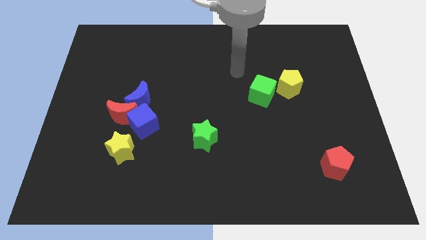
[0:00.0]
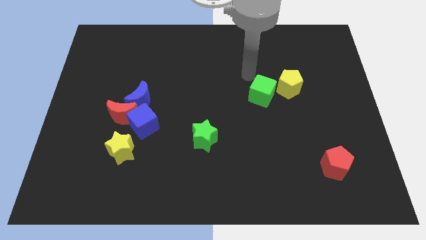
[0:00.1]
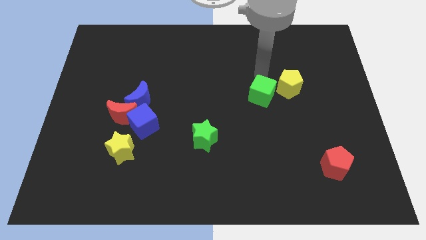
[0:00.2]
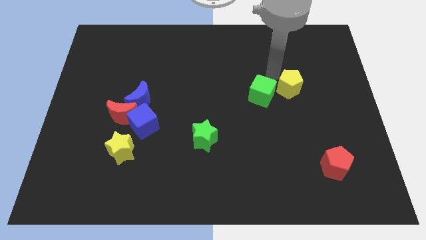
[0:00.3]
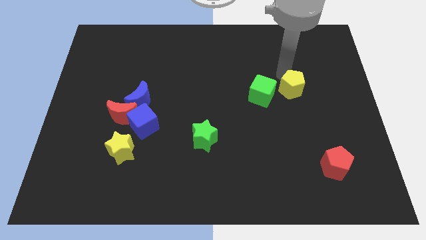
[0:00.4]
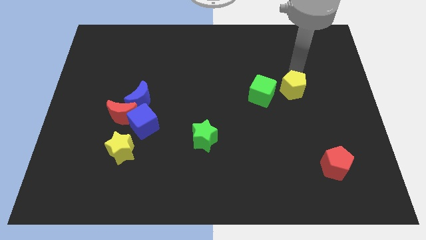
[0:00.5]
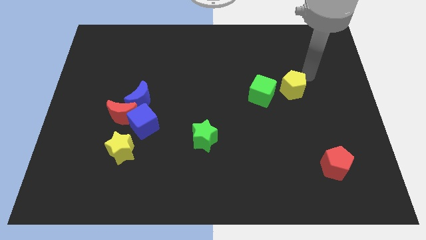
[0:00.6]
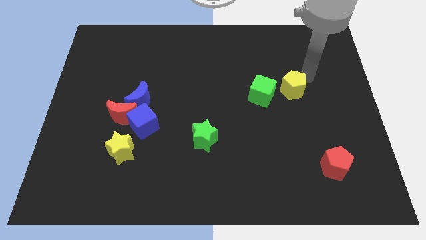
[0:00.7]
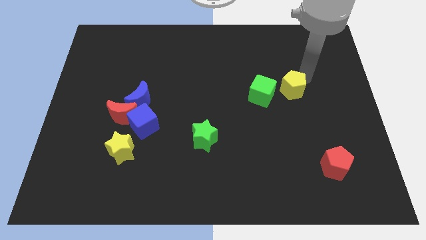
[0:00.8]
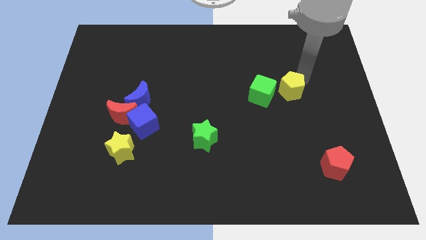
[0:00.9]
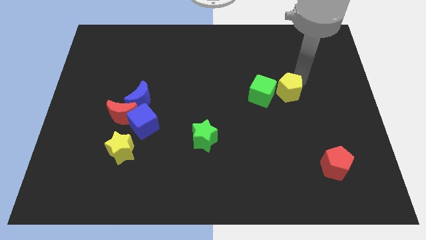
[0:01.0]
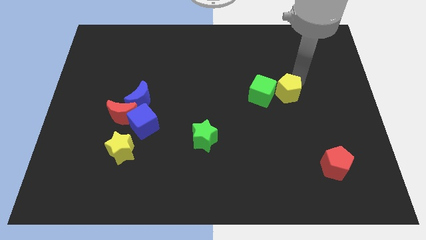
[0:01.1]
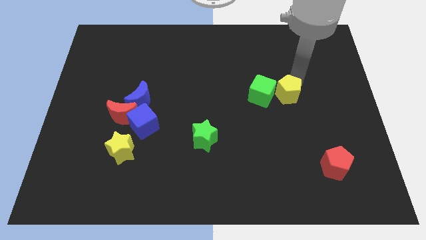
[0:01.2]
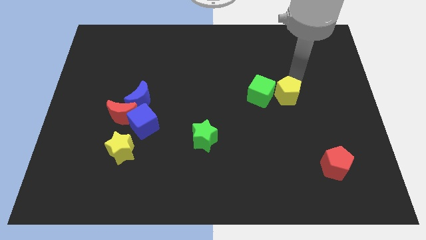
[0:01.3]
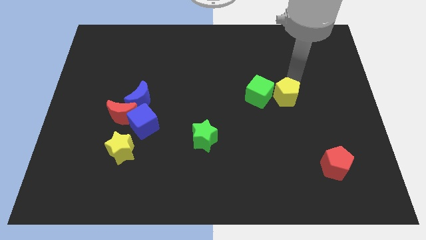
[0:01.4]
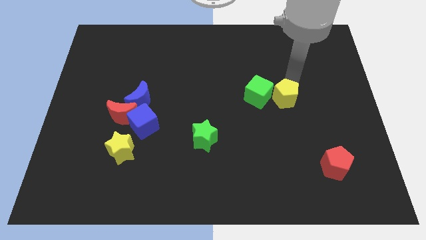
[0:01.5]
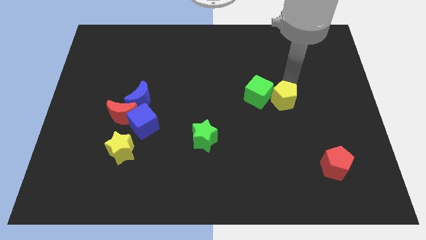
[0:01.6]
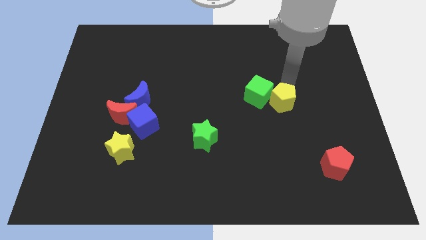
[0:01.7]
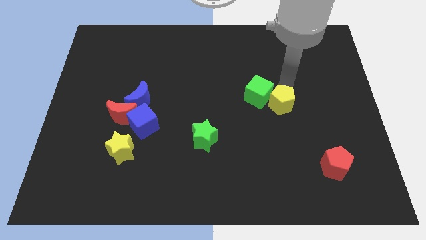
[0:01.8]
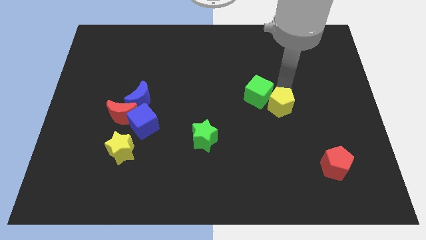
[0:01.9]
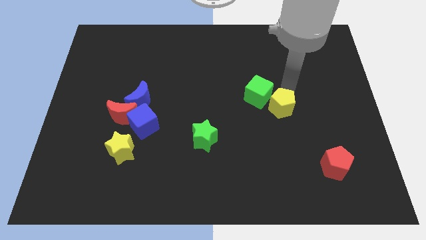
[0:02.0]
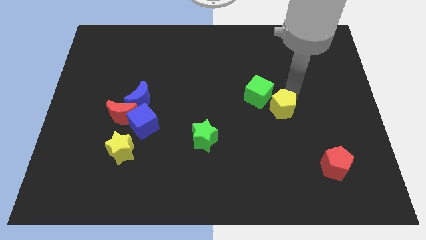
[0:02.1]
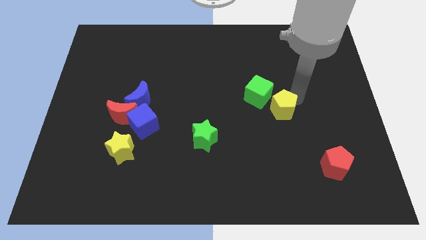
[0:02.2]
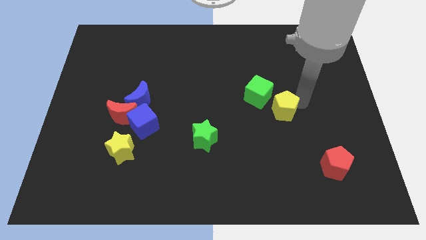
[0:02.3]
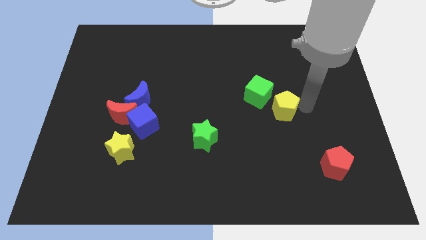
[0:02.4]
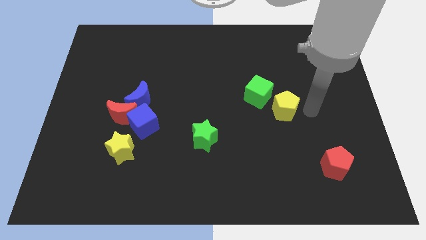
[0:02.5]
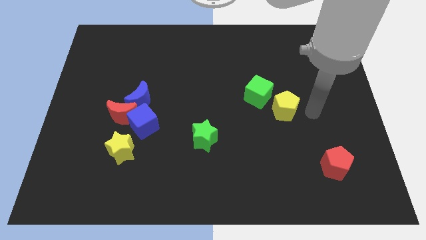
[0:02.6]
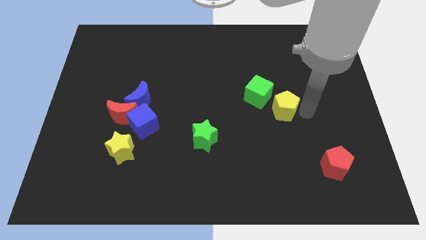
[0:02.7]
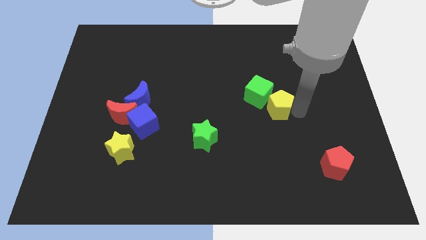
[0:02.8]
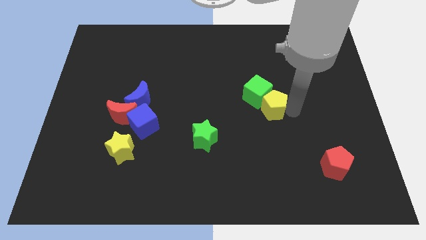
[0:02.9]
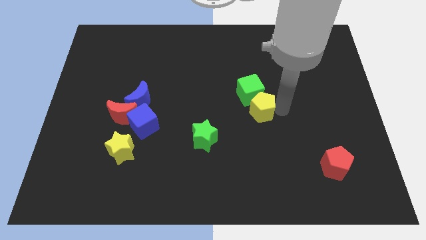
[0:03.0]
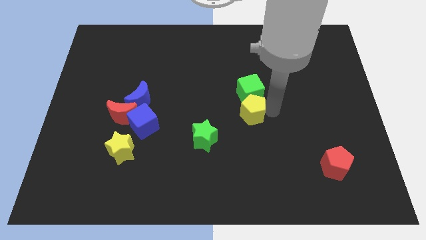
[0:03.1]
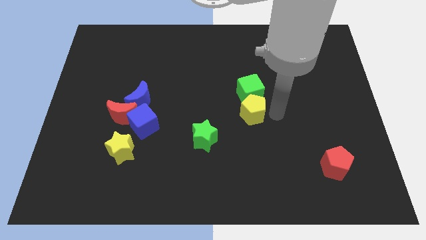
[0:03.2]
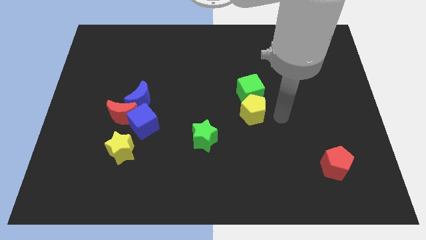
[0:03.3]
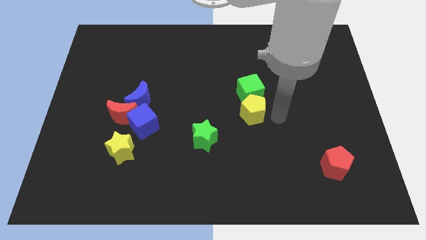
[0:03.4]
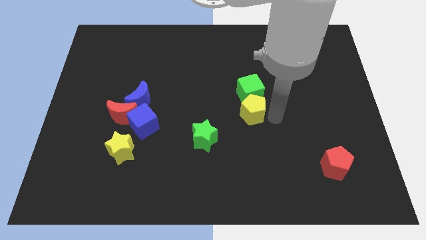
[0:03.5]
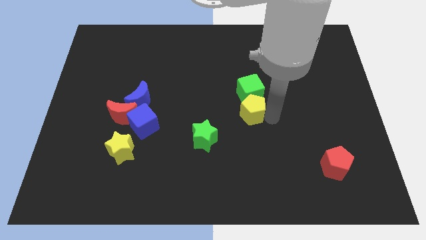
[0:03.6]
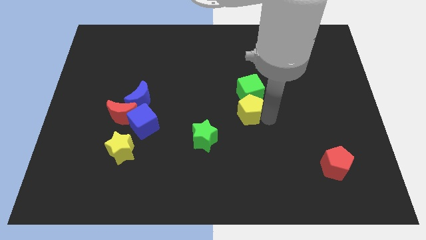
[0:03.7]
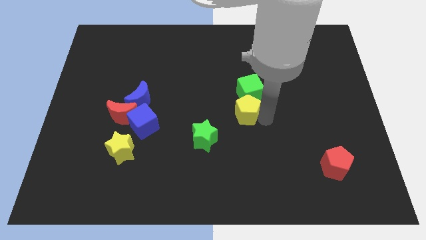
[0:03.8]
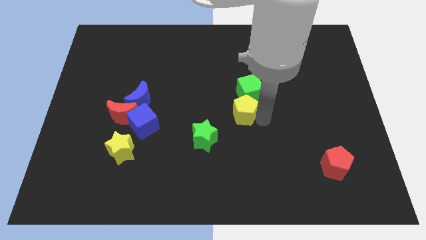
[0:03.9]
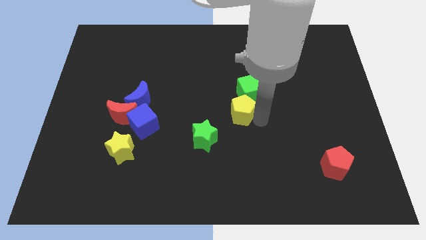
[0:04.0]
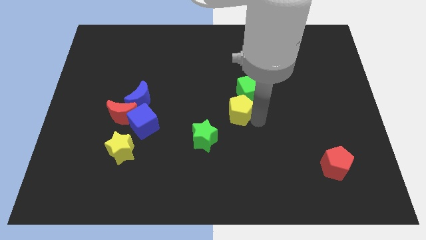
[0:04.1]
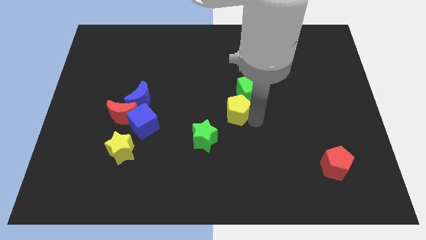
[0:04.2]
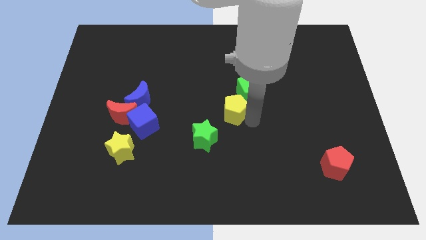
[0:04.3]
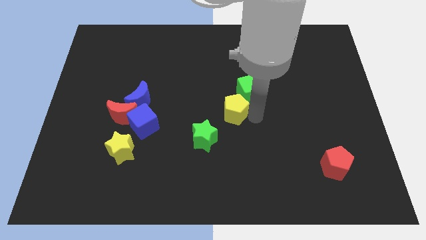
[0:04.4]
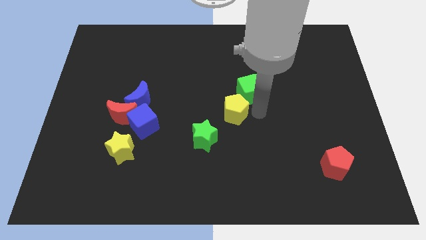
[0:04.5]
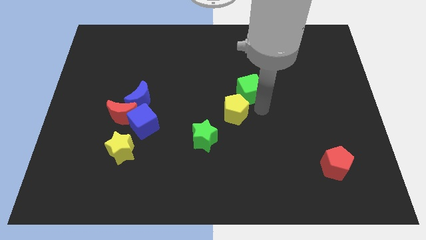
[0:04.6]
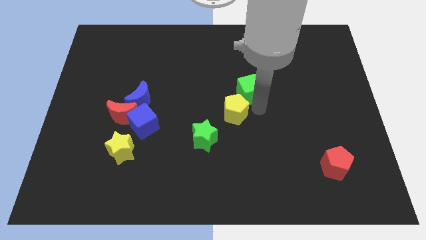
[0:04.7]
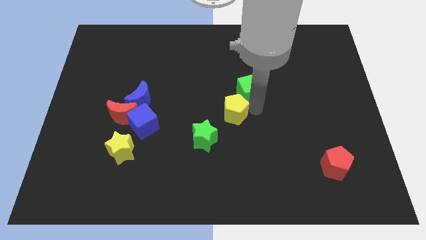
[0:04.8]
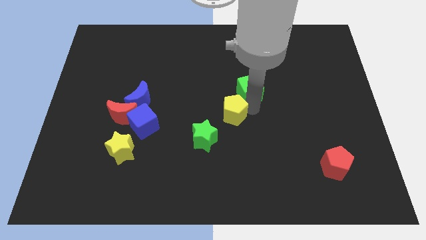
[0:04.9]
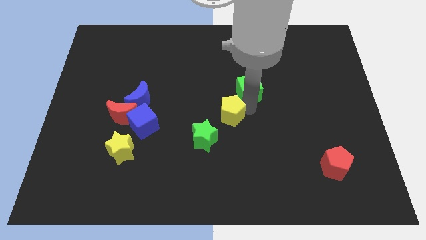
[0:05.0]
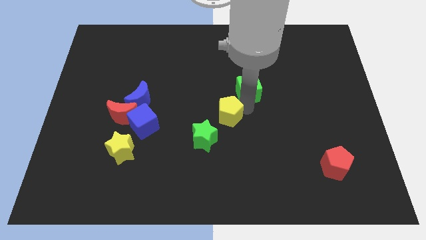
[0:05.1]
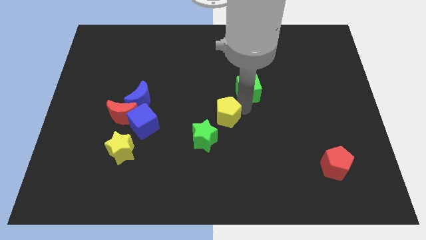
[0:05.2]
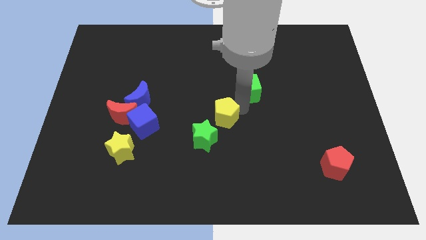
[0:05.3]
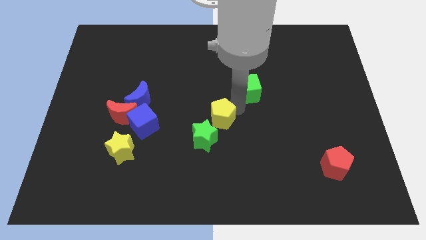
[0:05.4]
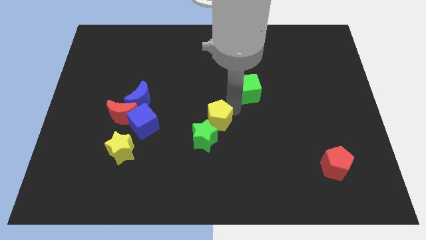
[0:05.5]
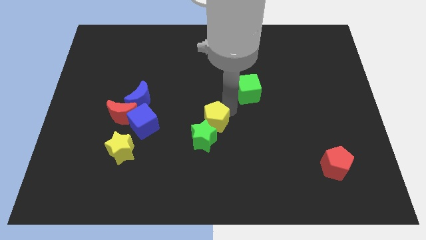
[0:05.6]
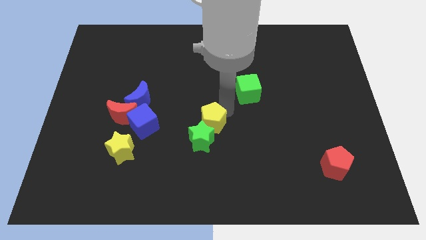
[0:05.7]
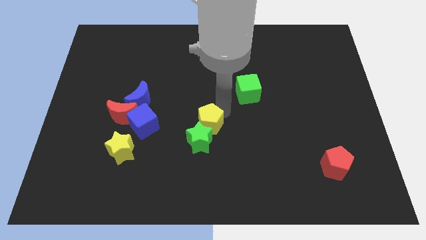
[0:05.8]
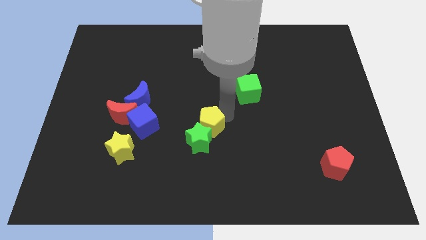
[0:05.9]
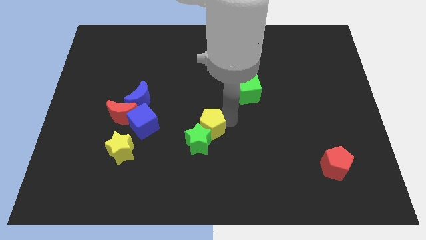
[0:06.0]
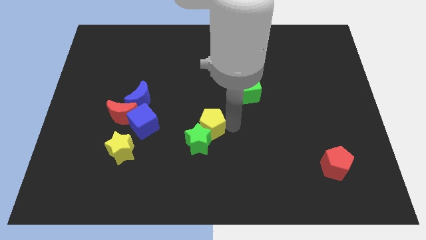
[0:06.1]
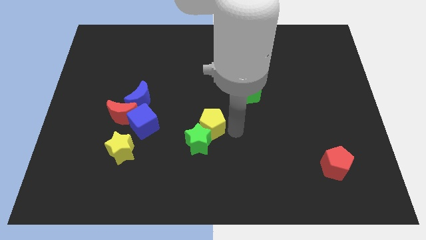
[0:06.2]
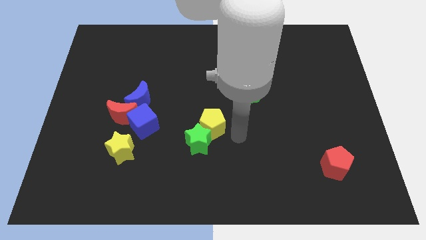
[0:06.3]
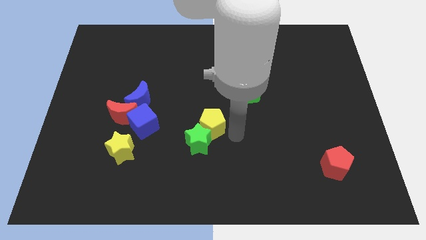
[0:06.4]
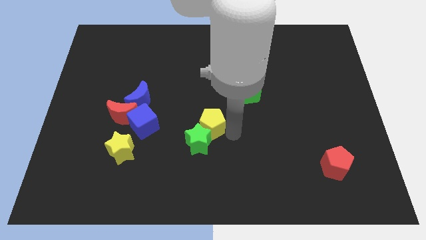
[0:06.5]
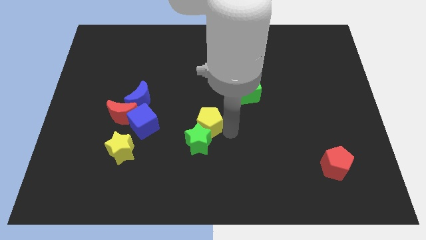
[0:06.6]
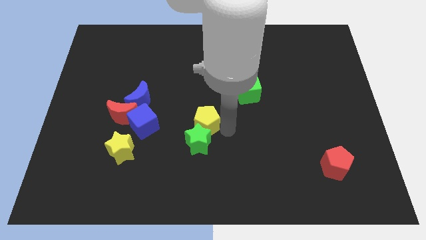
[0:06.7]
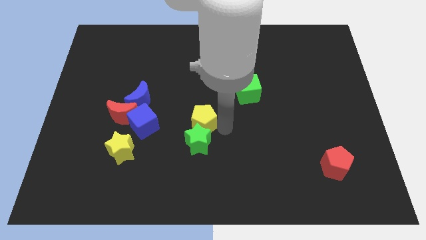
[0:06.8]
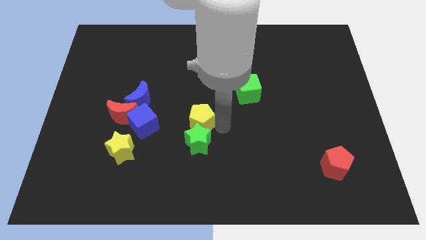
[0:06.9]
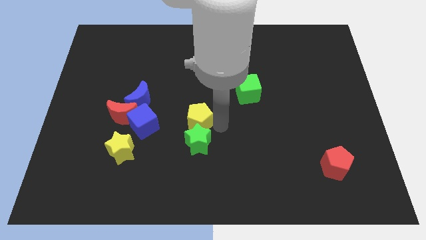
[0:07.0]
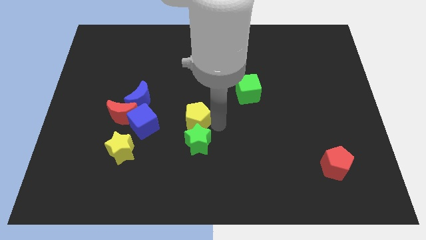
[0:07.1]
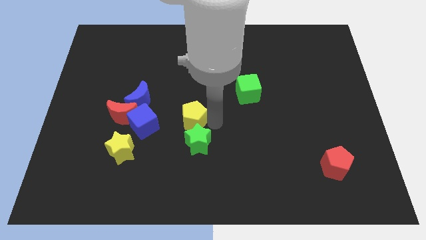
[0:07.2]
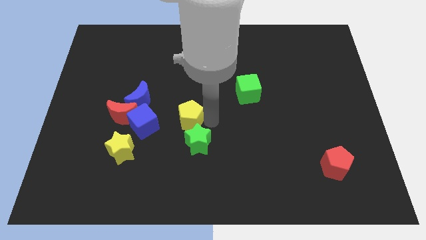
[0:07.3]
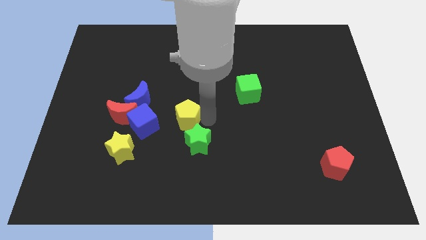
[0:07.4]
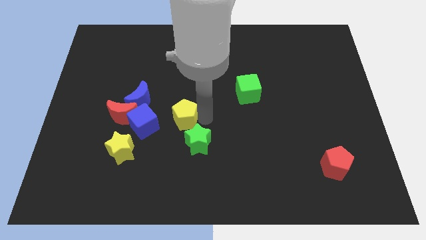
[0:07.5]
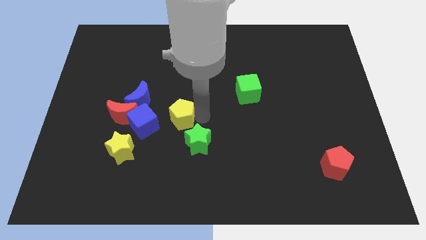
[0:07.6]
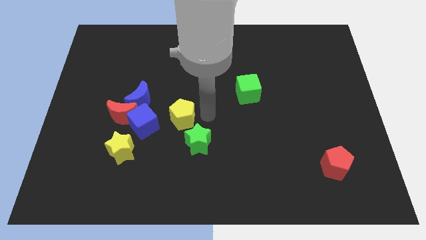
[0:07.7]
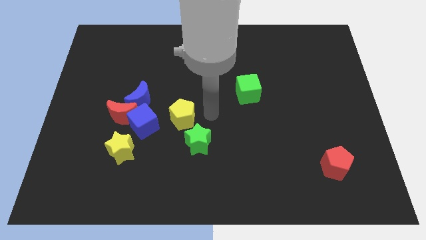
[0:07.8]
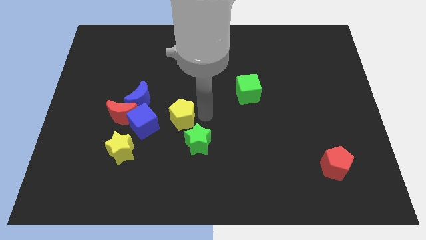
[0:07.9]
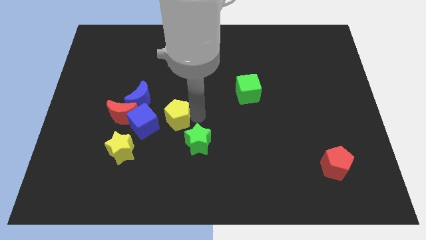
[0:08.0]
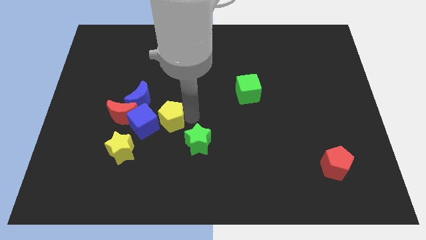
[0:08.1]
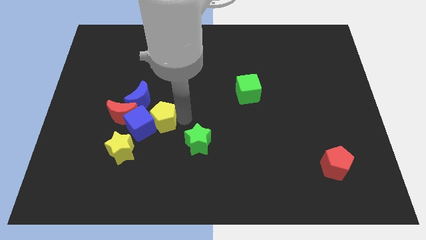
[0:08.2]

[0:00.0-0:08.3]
put the yellow pentagon next to the blue cube

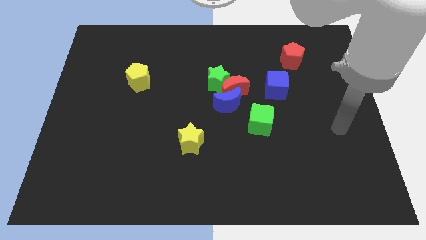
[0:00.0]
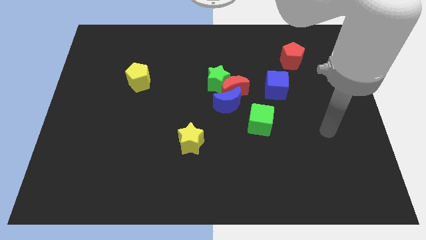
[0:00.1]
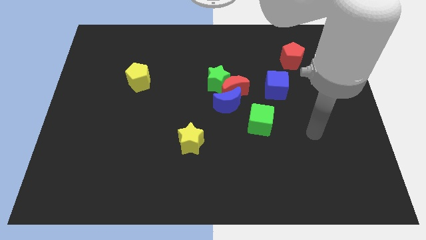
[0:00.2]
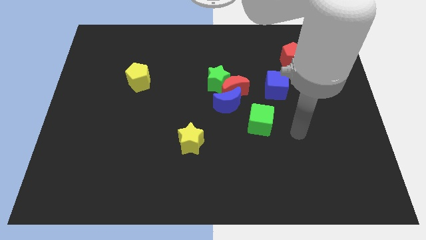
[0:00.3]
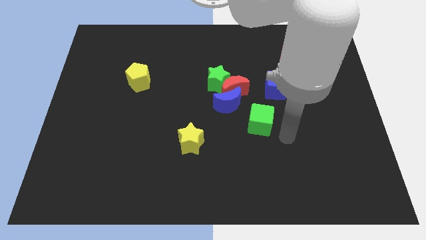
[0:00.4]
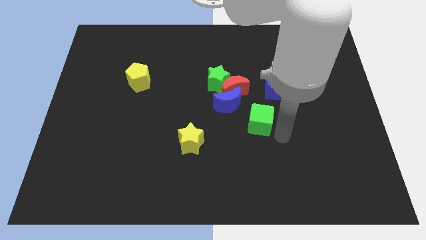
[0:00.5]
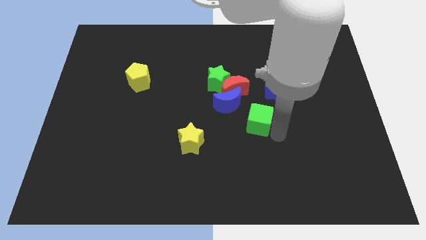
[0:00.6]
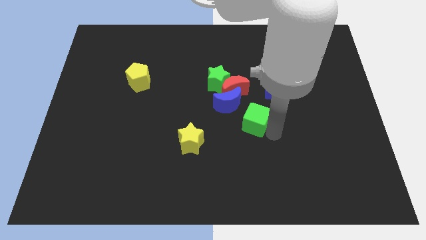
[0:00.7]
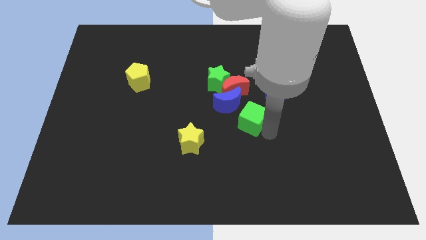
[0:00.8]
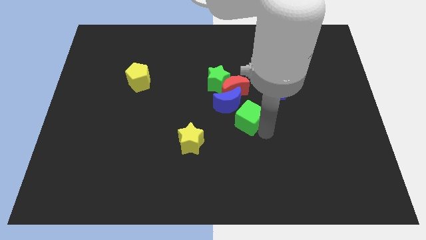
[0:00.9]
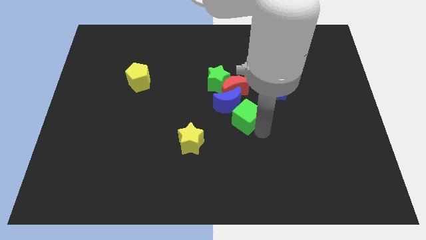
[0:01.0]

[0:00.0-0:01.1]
put the green cube to the blue moon
